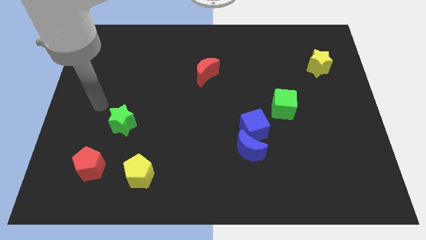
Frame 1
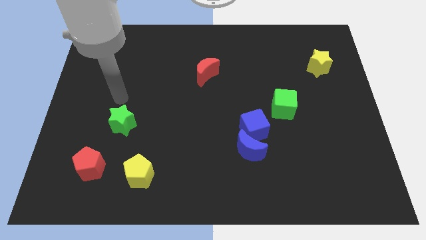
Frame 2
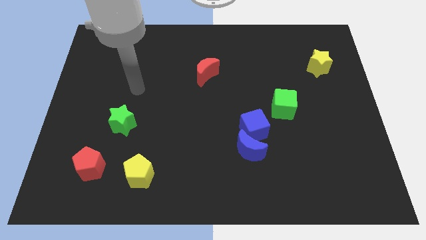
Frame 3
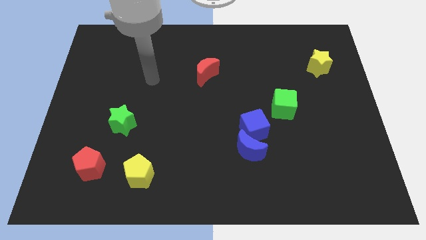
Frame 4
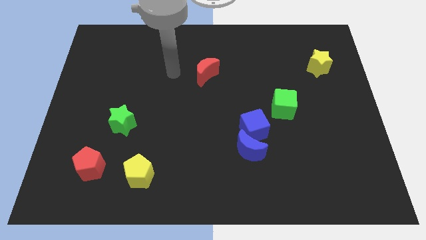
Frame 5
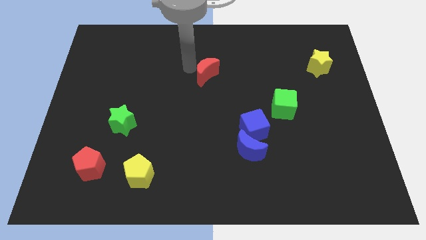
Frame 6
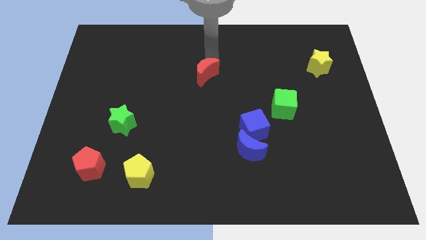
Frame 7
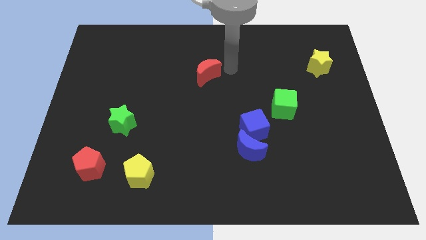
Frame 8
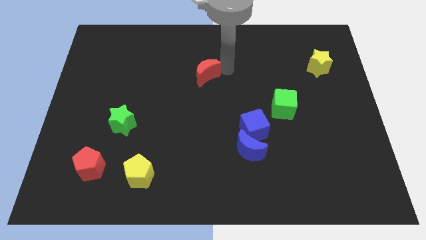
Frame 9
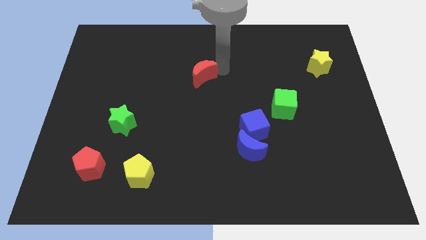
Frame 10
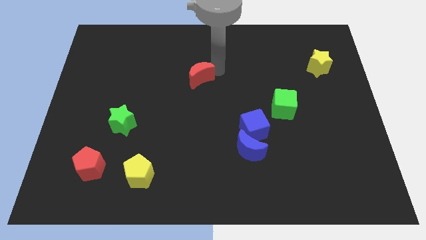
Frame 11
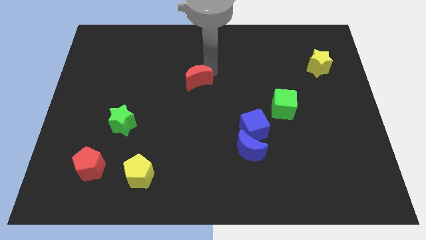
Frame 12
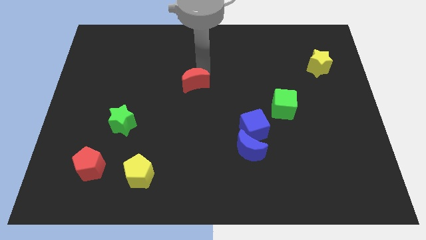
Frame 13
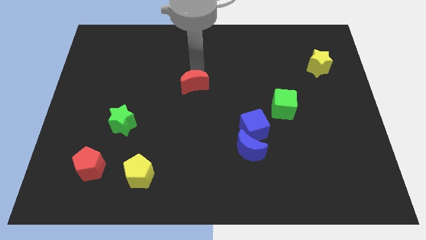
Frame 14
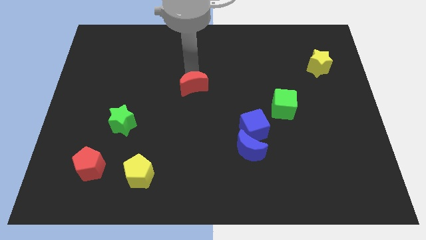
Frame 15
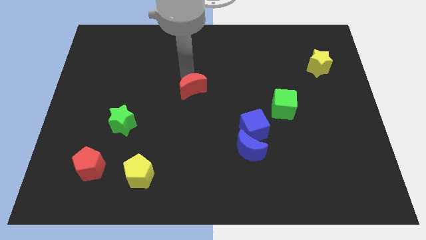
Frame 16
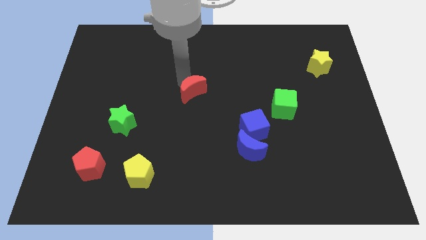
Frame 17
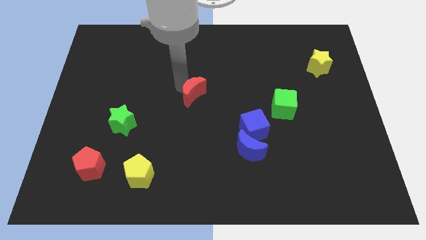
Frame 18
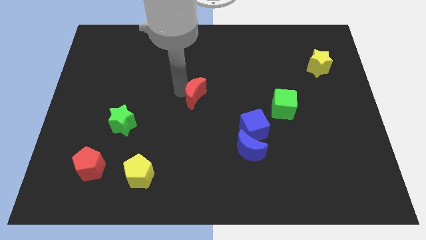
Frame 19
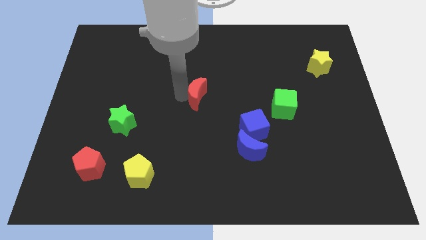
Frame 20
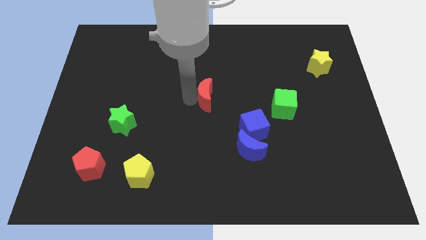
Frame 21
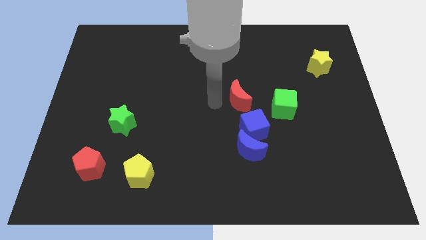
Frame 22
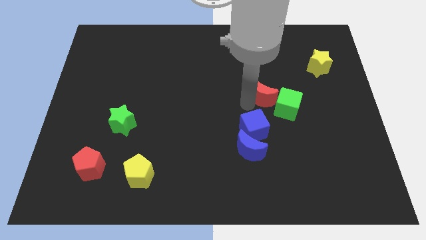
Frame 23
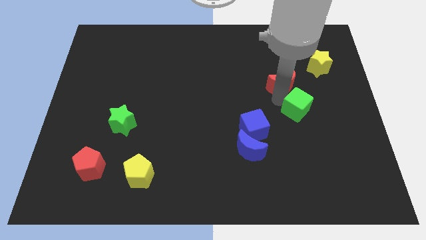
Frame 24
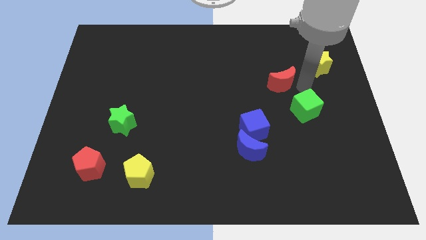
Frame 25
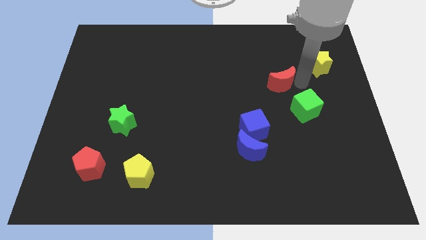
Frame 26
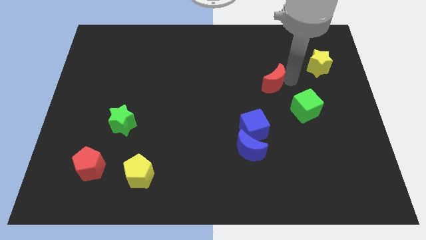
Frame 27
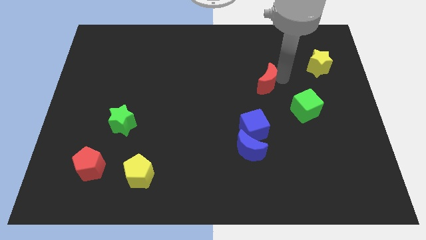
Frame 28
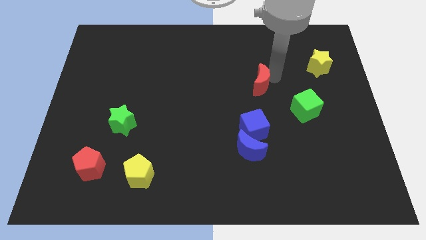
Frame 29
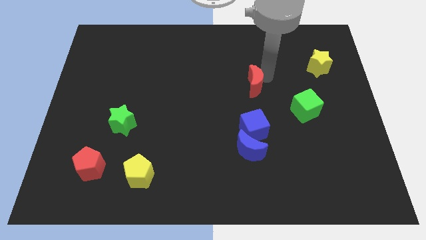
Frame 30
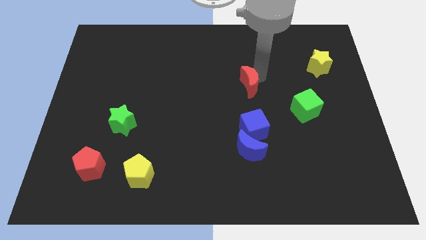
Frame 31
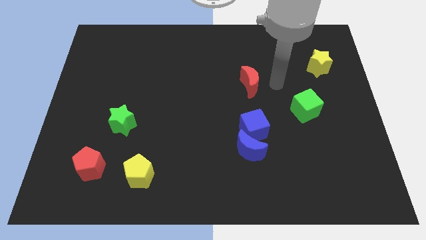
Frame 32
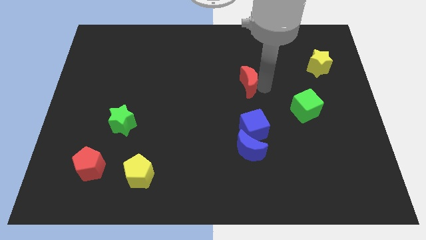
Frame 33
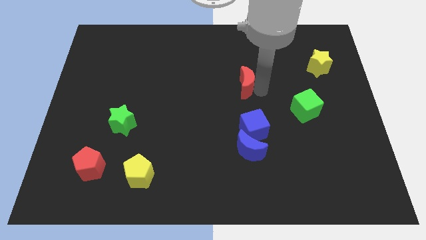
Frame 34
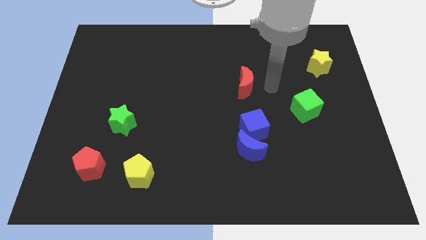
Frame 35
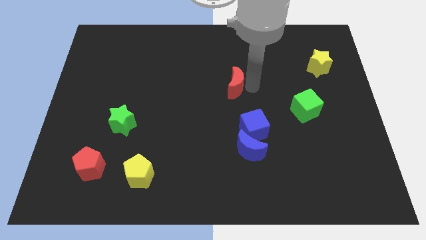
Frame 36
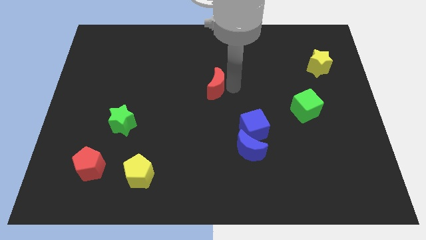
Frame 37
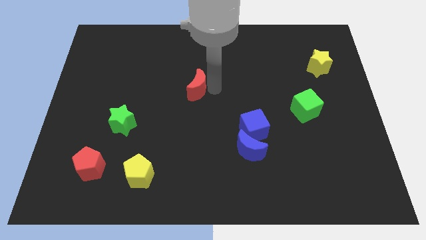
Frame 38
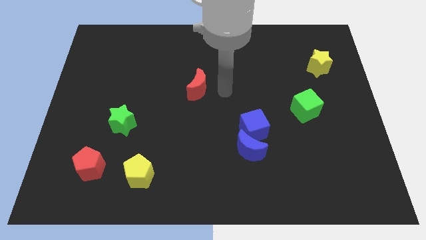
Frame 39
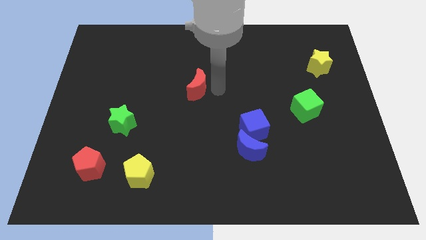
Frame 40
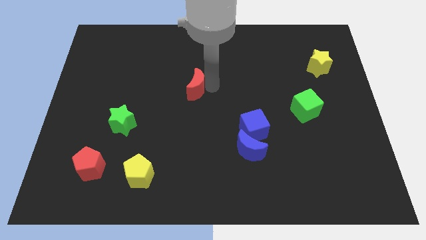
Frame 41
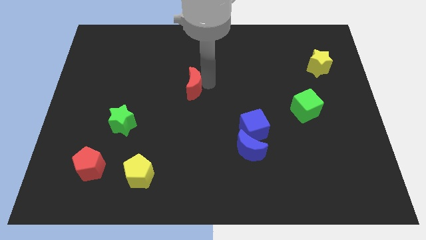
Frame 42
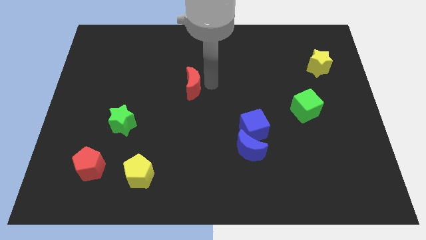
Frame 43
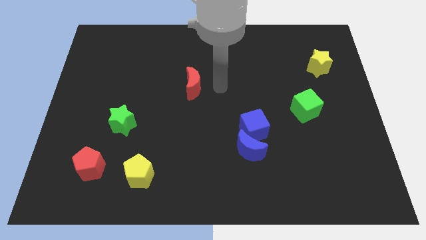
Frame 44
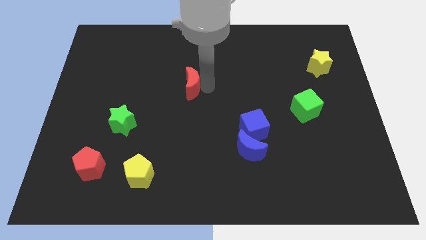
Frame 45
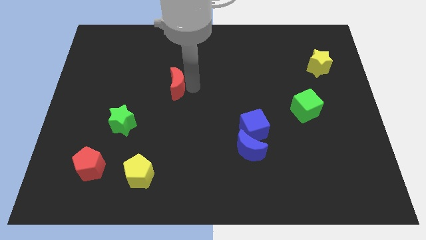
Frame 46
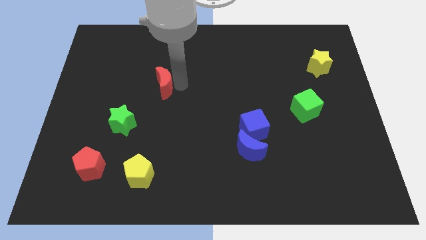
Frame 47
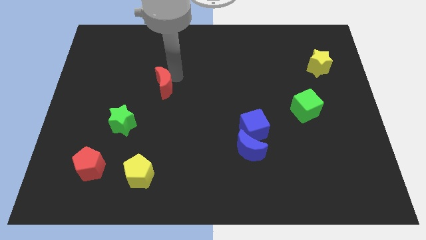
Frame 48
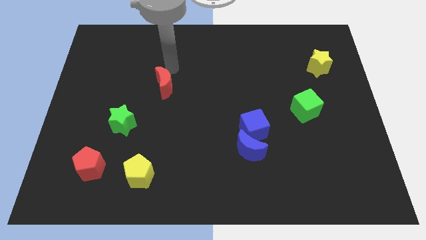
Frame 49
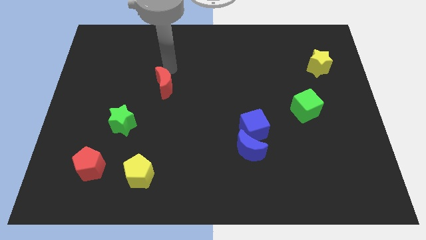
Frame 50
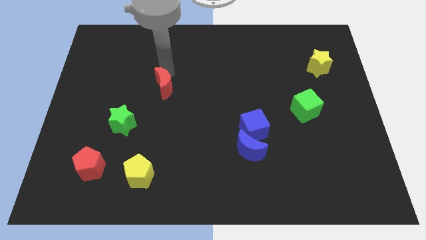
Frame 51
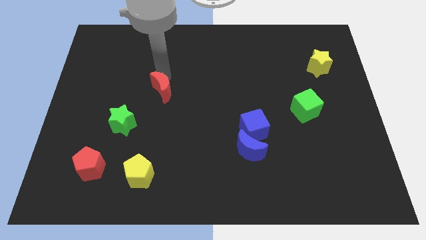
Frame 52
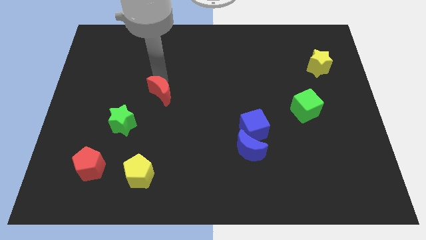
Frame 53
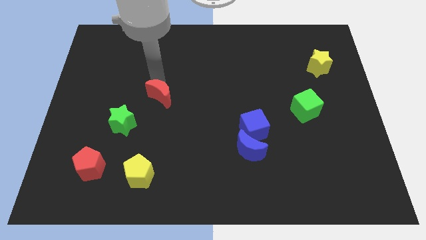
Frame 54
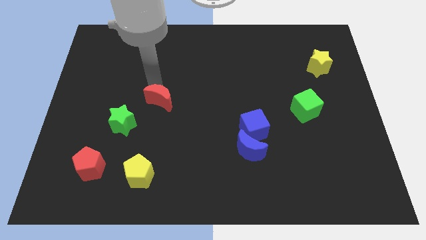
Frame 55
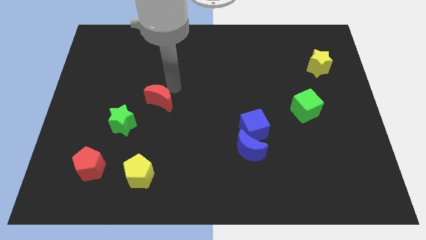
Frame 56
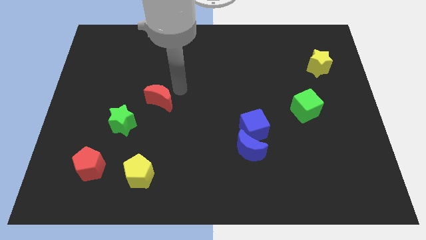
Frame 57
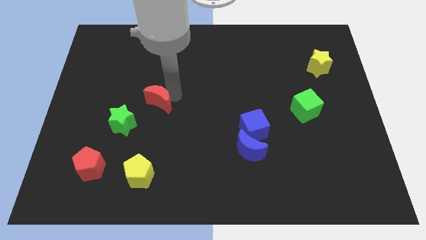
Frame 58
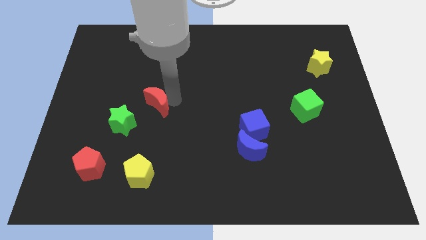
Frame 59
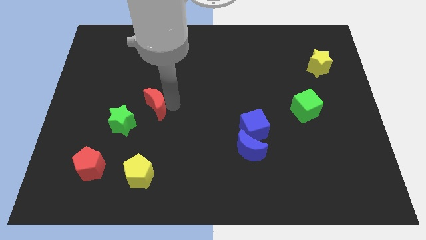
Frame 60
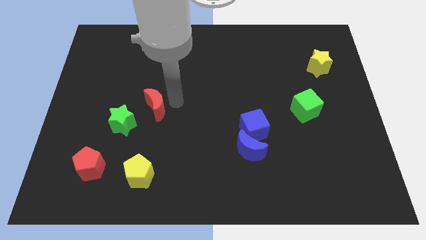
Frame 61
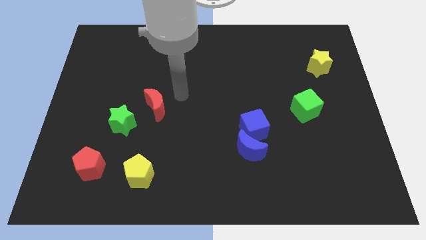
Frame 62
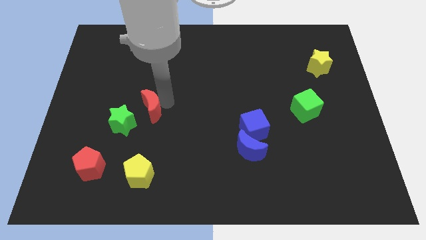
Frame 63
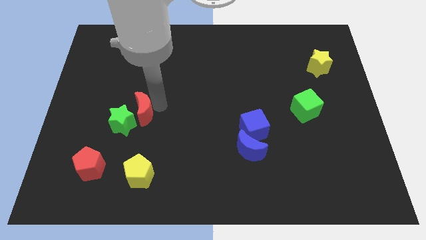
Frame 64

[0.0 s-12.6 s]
put the red moon towards the green star

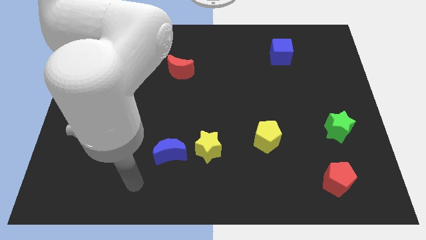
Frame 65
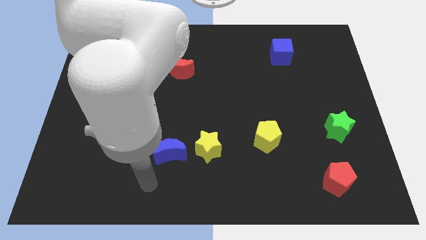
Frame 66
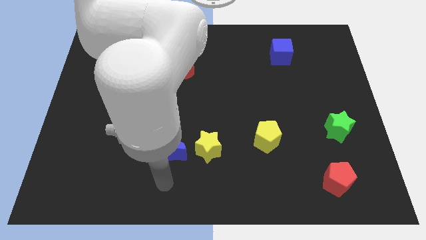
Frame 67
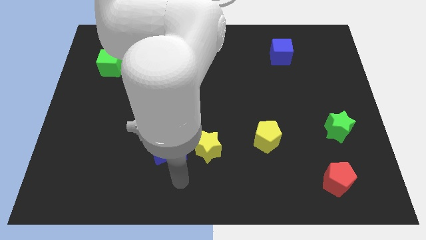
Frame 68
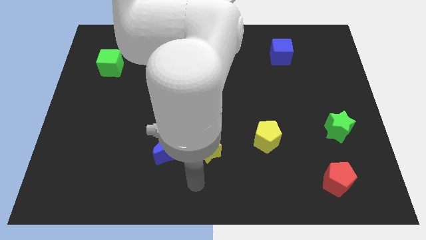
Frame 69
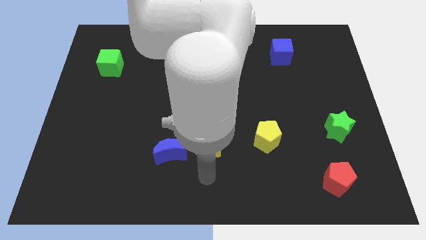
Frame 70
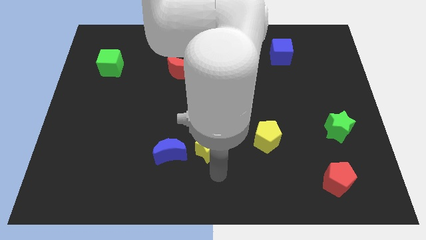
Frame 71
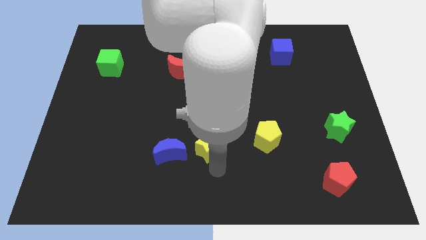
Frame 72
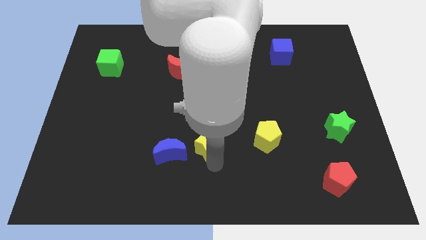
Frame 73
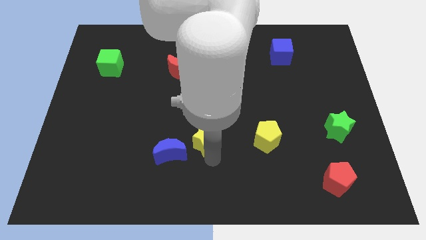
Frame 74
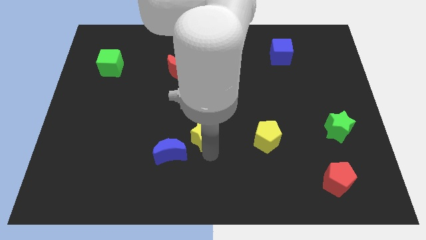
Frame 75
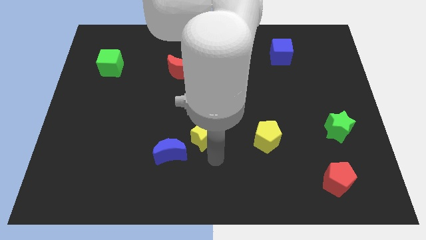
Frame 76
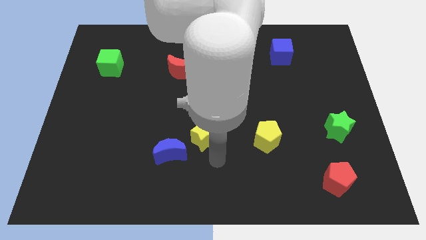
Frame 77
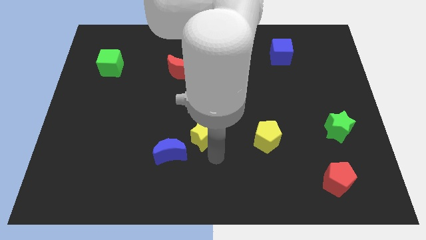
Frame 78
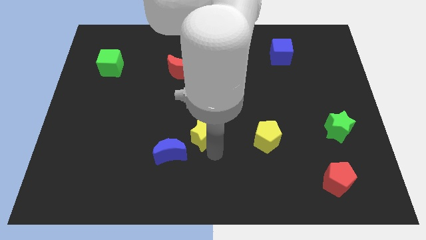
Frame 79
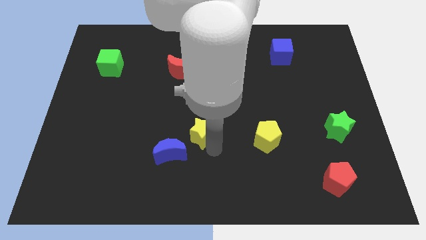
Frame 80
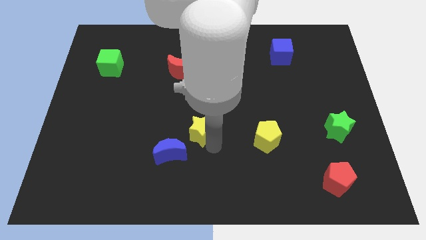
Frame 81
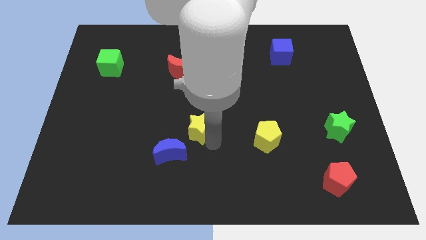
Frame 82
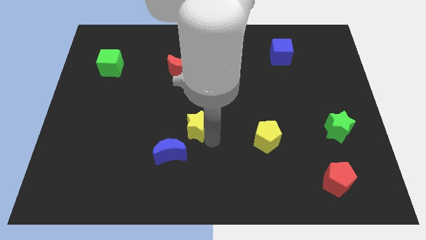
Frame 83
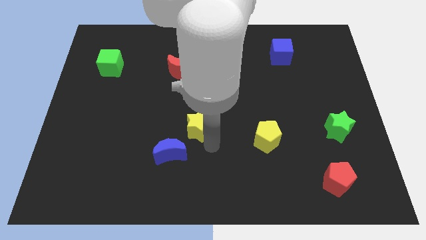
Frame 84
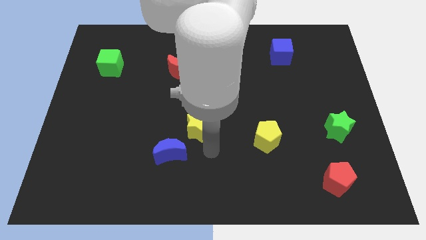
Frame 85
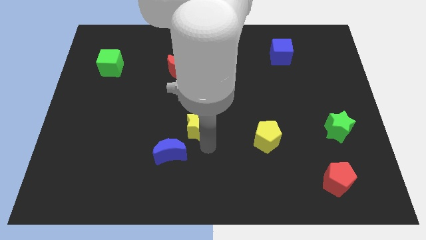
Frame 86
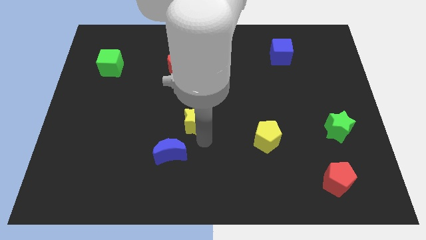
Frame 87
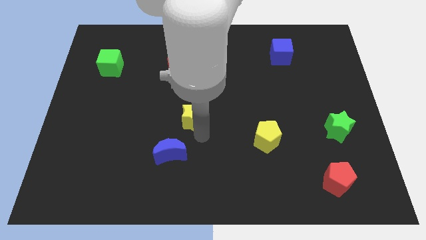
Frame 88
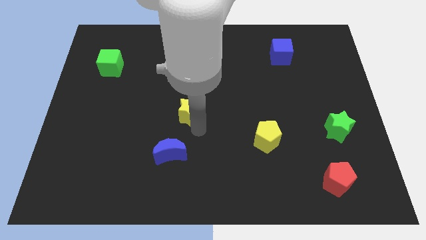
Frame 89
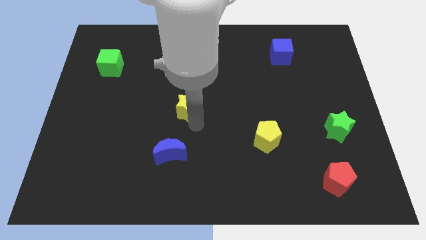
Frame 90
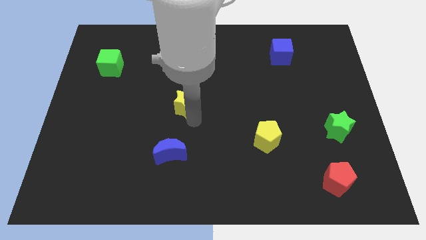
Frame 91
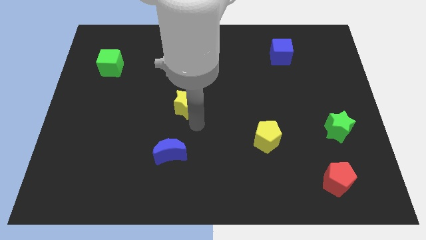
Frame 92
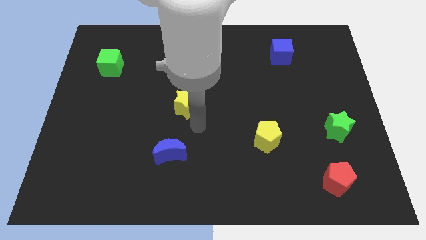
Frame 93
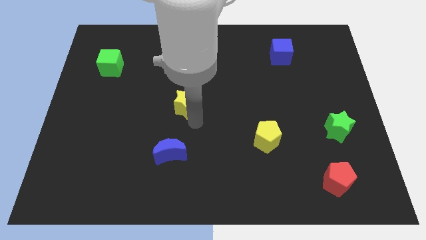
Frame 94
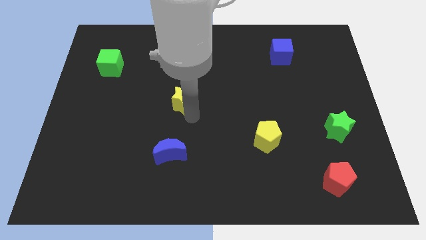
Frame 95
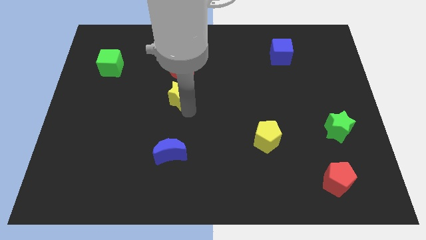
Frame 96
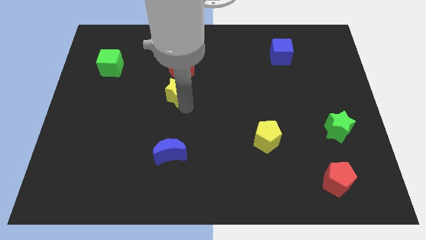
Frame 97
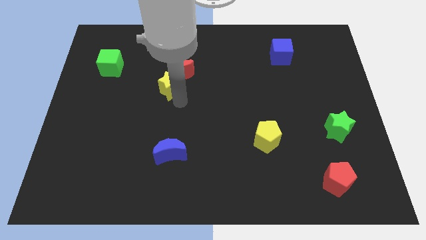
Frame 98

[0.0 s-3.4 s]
put the yellow star to the red moon
